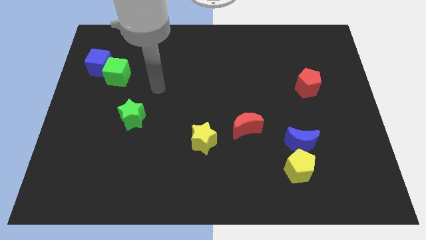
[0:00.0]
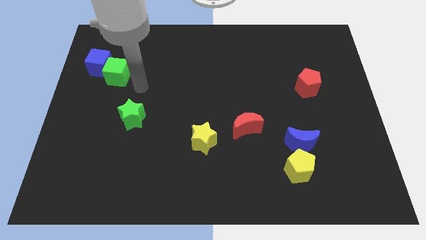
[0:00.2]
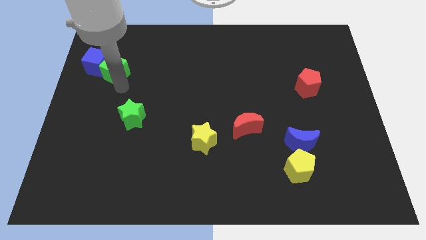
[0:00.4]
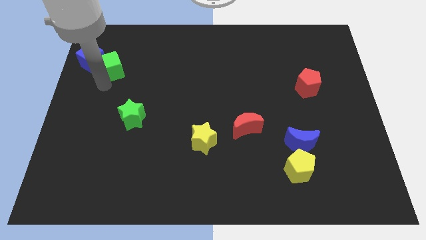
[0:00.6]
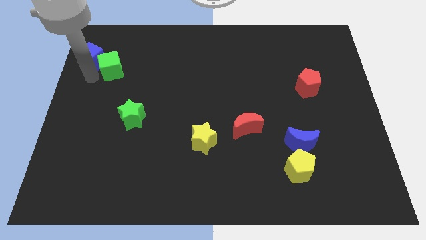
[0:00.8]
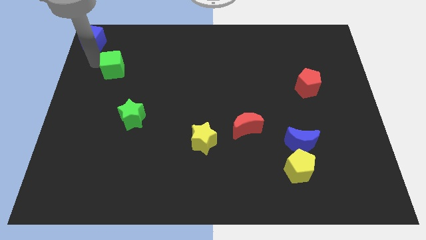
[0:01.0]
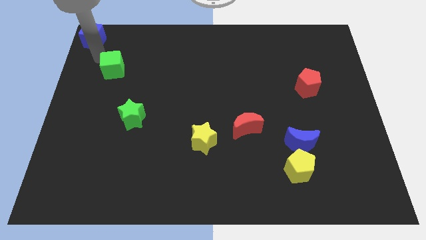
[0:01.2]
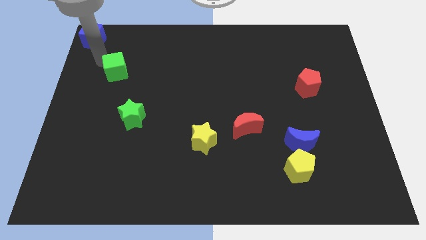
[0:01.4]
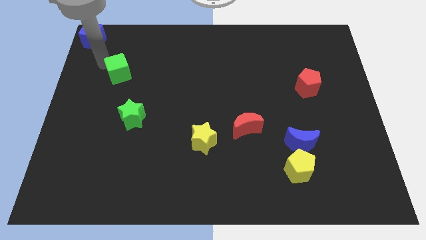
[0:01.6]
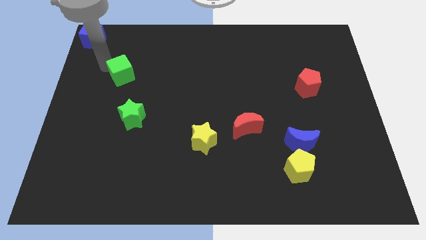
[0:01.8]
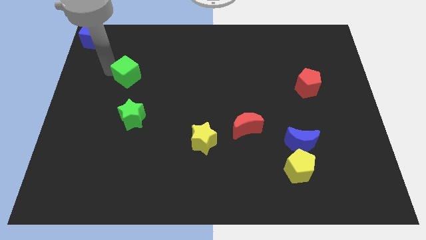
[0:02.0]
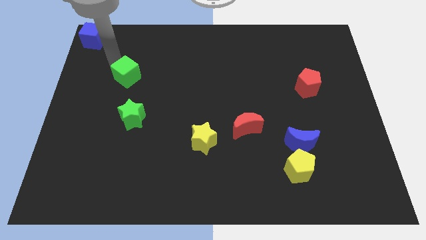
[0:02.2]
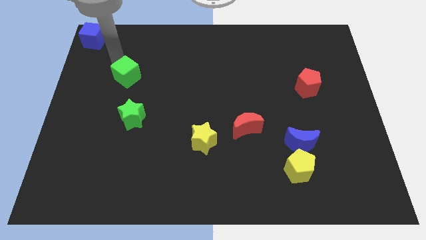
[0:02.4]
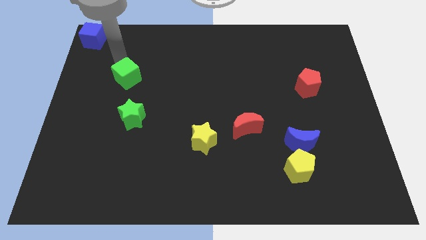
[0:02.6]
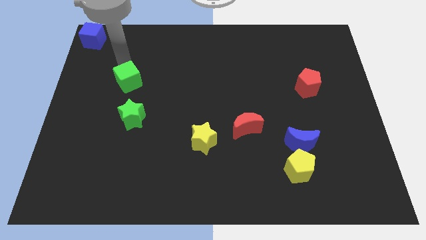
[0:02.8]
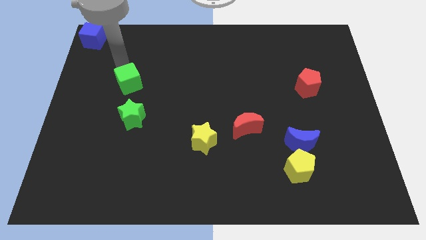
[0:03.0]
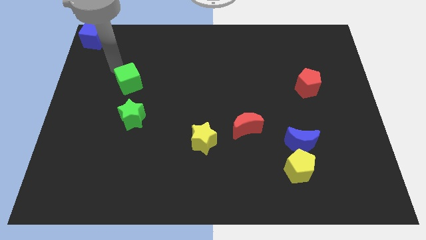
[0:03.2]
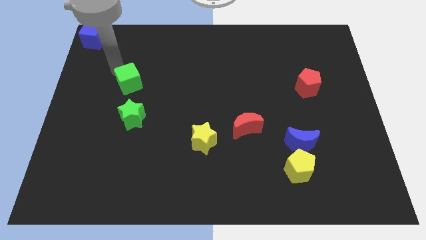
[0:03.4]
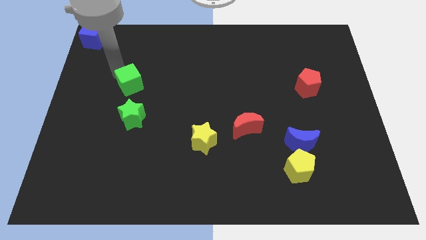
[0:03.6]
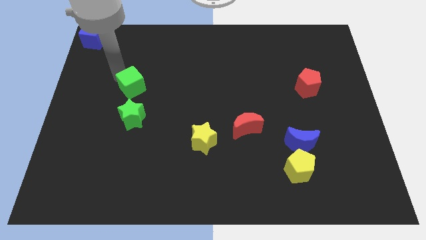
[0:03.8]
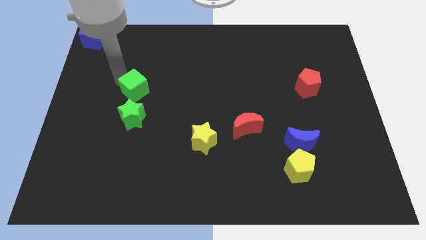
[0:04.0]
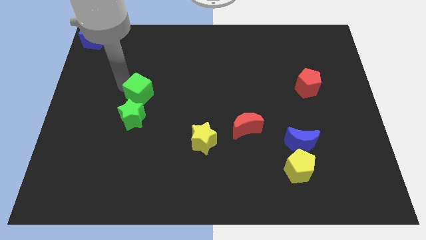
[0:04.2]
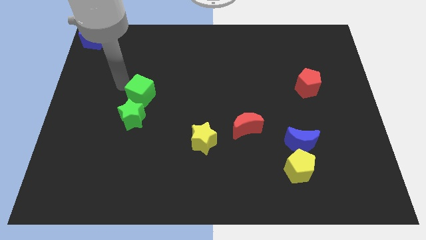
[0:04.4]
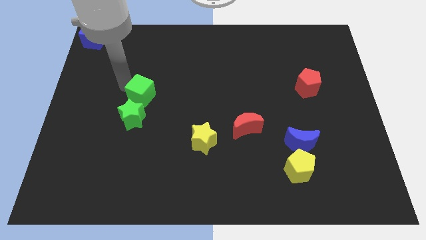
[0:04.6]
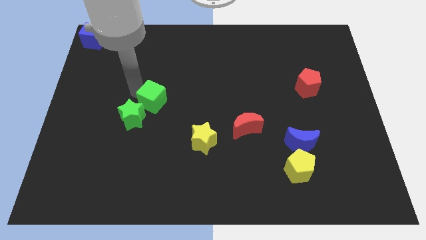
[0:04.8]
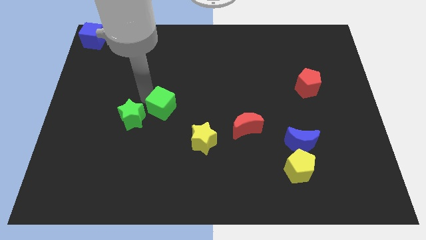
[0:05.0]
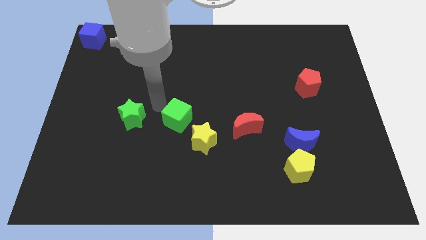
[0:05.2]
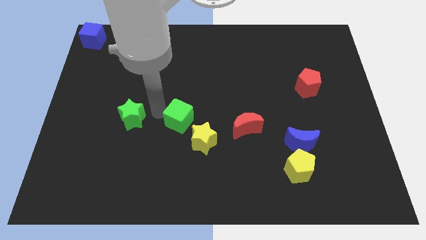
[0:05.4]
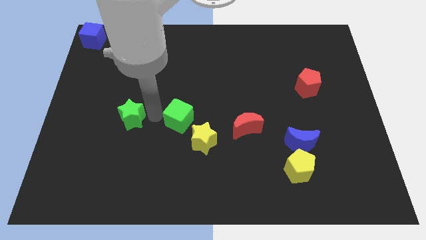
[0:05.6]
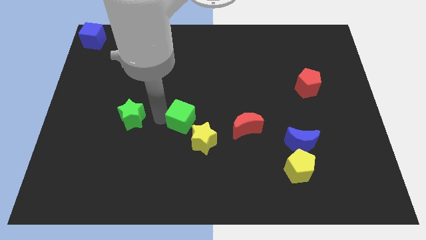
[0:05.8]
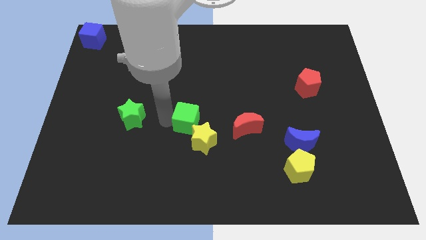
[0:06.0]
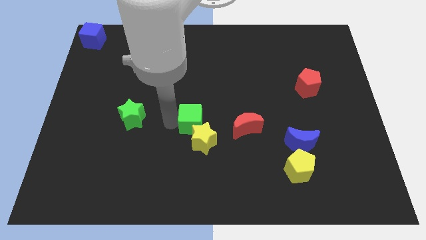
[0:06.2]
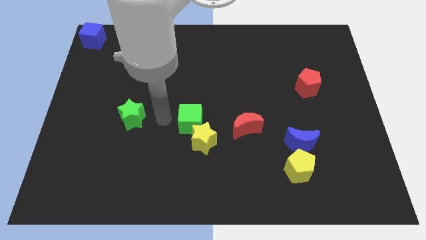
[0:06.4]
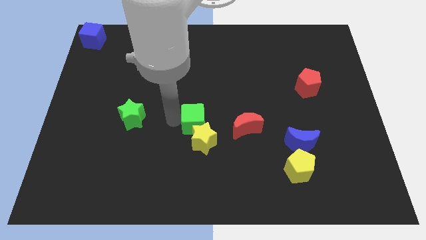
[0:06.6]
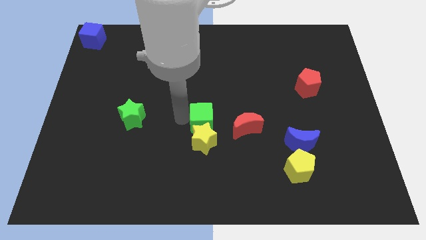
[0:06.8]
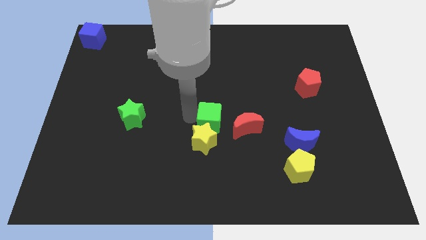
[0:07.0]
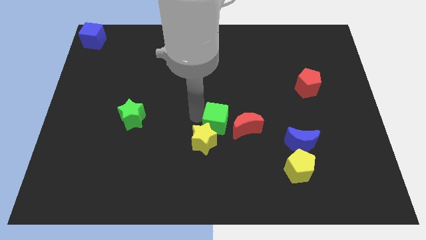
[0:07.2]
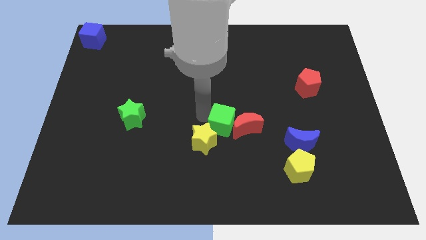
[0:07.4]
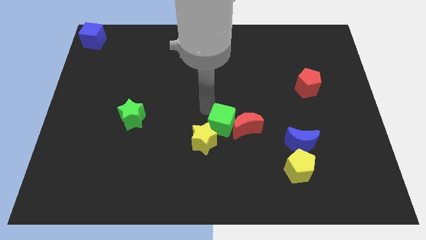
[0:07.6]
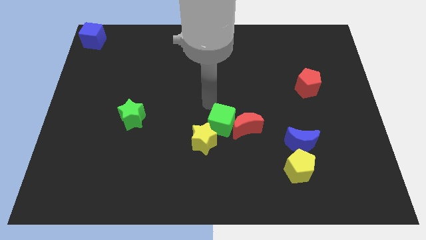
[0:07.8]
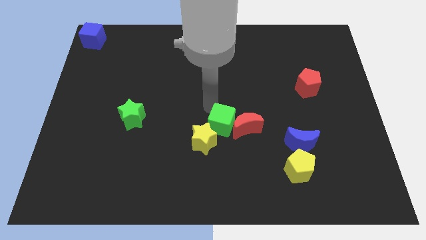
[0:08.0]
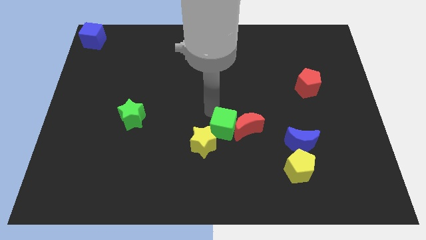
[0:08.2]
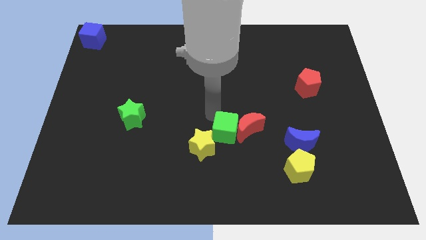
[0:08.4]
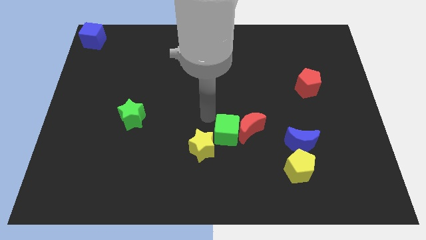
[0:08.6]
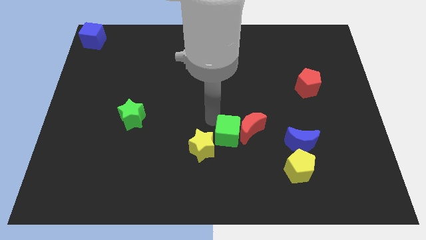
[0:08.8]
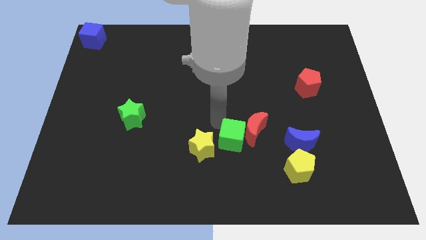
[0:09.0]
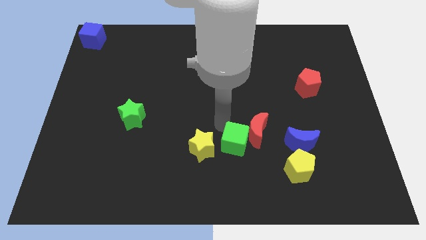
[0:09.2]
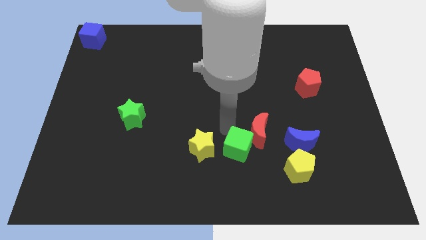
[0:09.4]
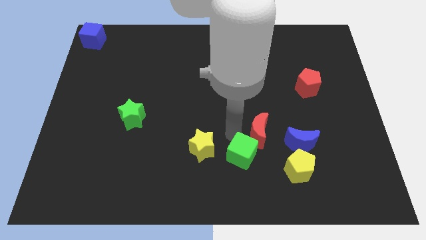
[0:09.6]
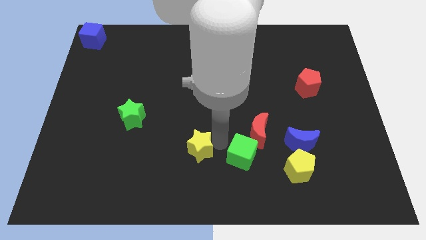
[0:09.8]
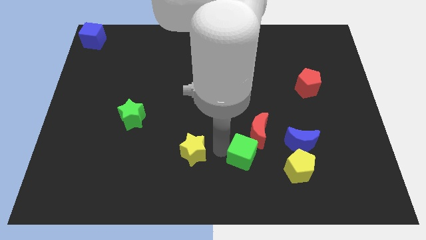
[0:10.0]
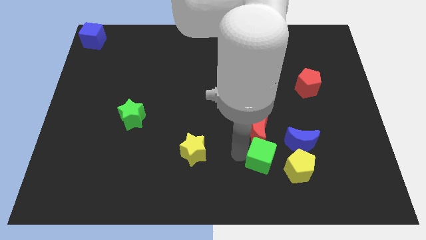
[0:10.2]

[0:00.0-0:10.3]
put the green cube to the bottom left side of the blue moon

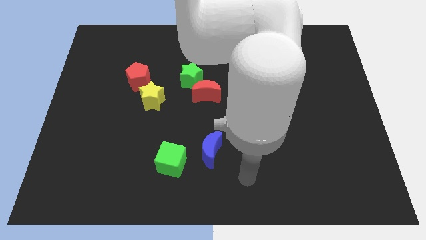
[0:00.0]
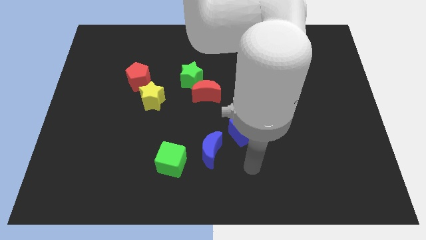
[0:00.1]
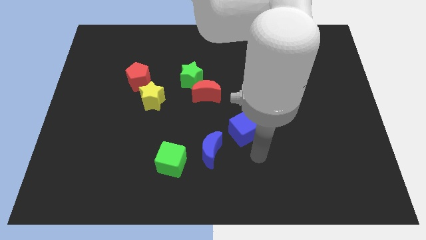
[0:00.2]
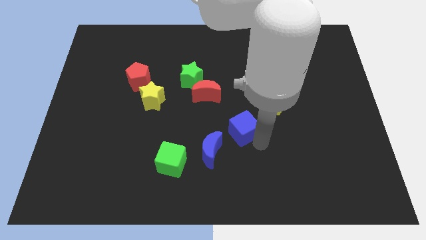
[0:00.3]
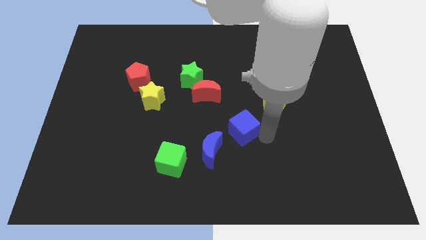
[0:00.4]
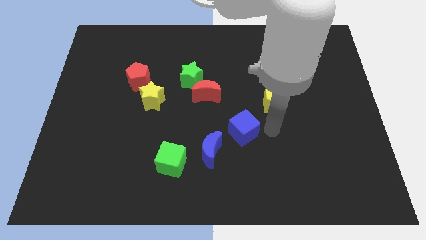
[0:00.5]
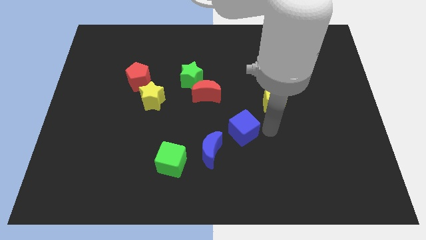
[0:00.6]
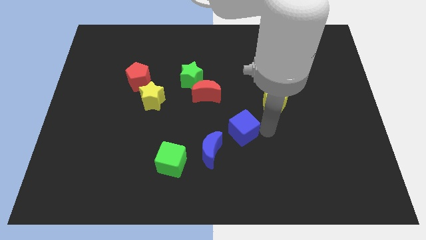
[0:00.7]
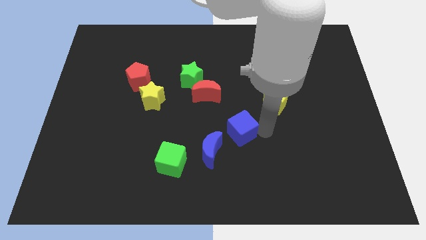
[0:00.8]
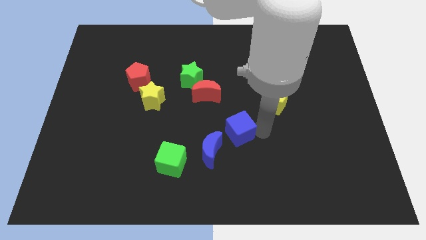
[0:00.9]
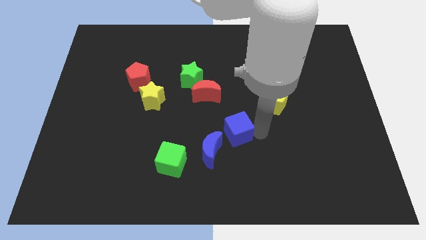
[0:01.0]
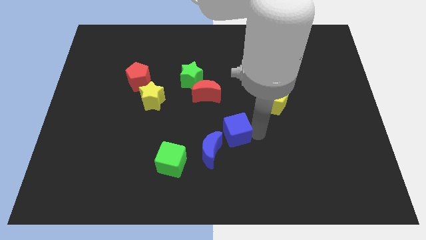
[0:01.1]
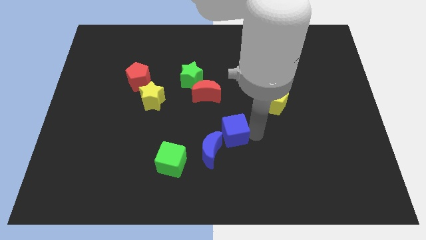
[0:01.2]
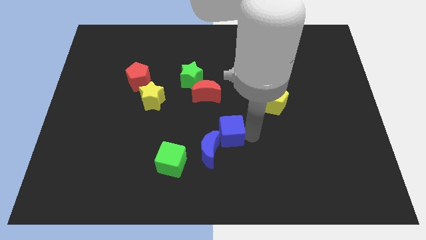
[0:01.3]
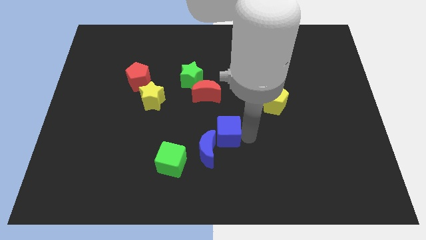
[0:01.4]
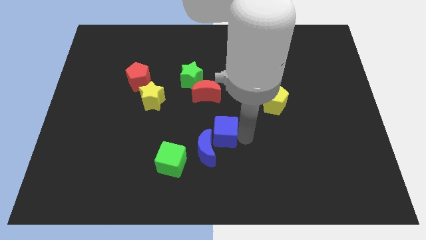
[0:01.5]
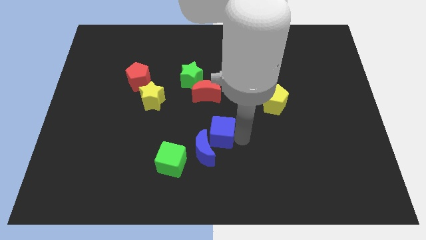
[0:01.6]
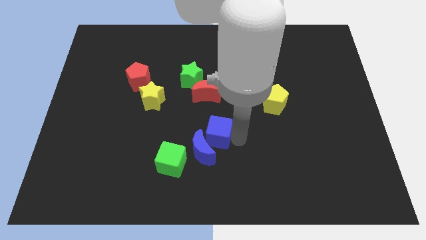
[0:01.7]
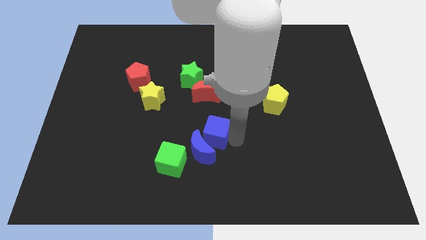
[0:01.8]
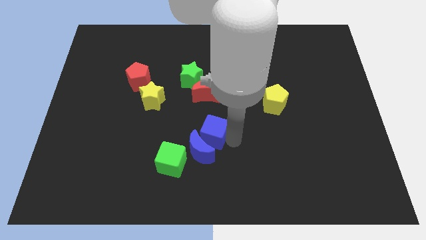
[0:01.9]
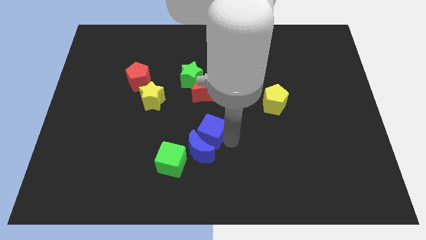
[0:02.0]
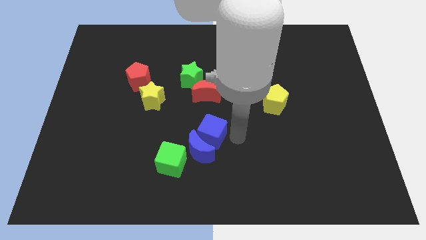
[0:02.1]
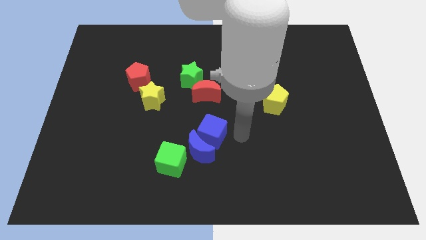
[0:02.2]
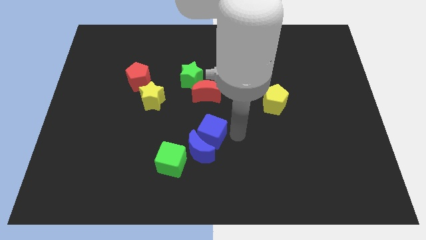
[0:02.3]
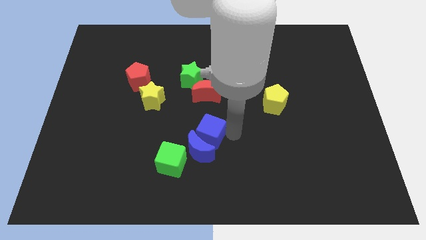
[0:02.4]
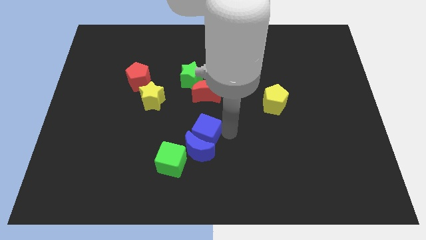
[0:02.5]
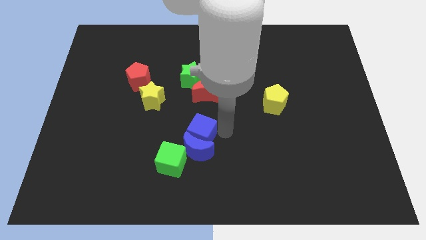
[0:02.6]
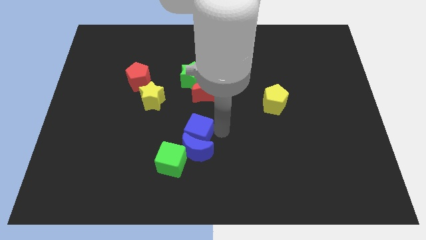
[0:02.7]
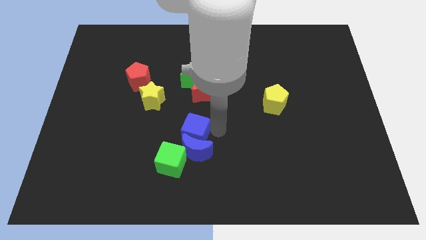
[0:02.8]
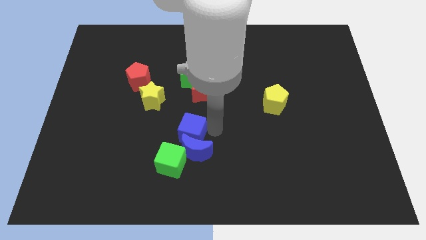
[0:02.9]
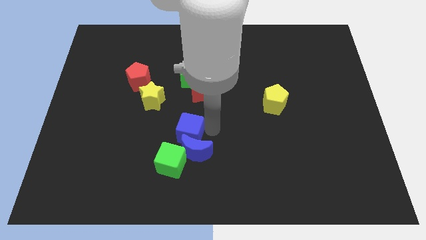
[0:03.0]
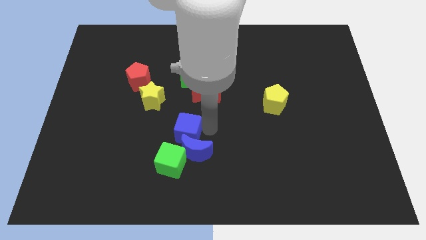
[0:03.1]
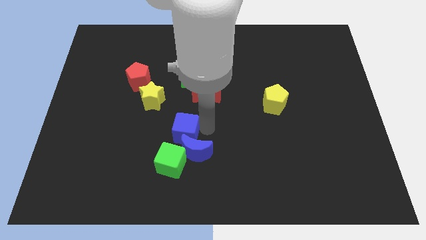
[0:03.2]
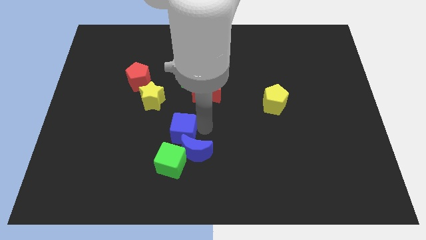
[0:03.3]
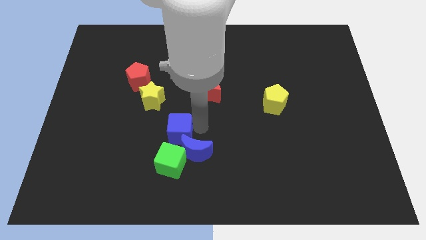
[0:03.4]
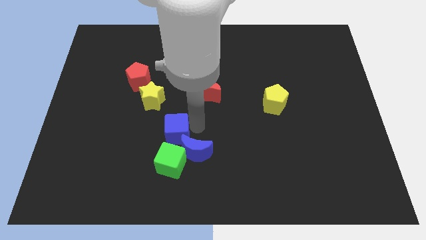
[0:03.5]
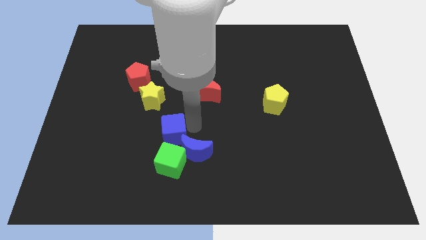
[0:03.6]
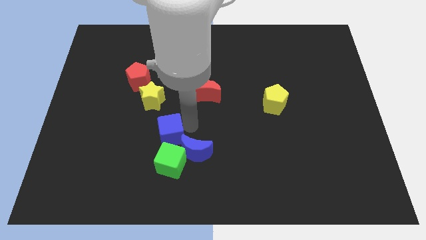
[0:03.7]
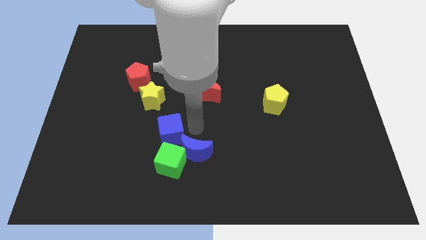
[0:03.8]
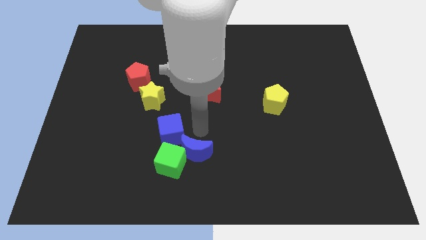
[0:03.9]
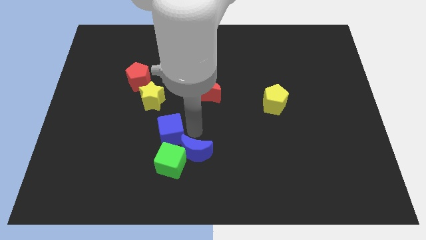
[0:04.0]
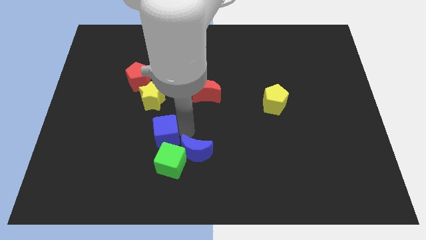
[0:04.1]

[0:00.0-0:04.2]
slide the blue cube below the yellow star
